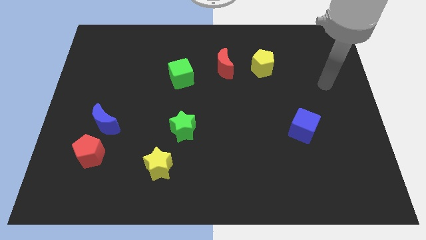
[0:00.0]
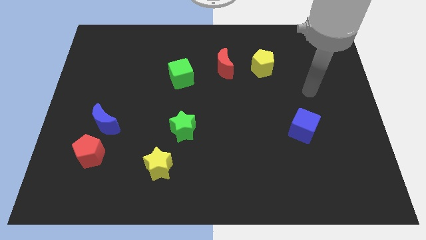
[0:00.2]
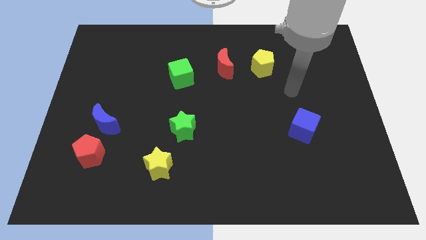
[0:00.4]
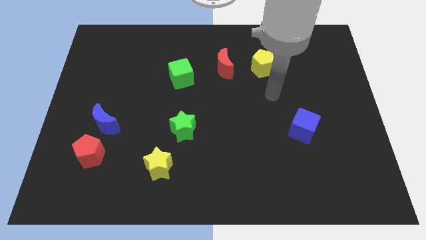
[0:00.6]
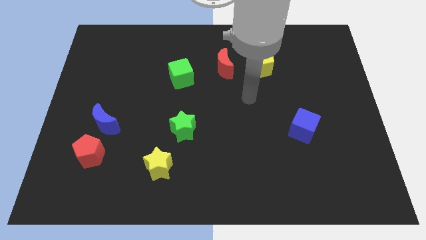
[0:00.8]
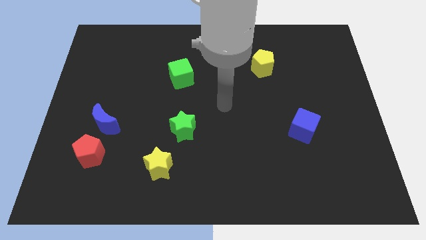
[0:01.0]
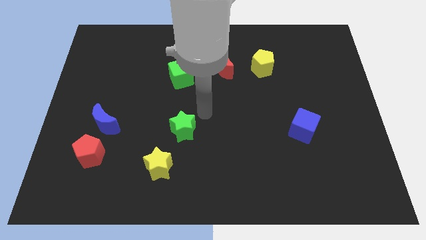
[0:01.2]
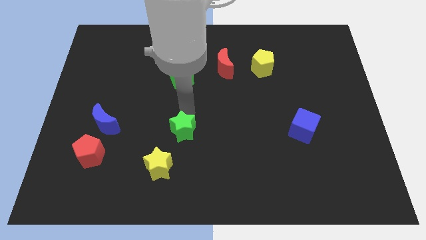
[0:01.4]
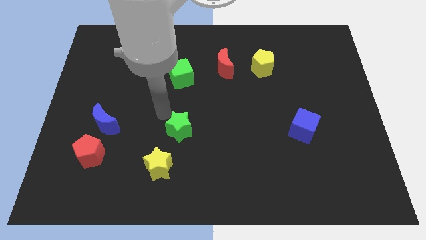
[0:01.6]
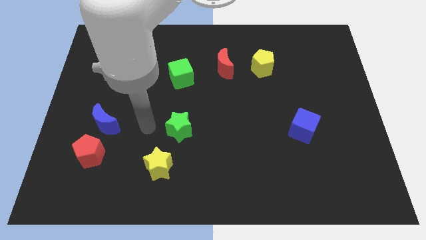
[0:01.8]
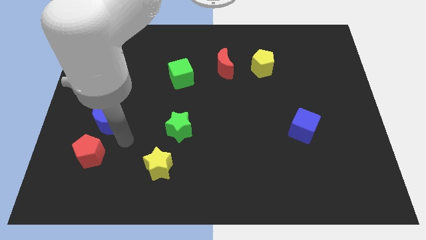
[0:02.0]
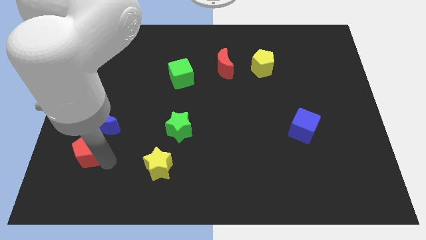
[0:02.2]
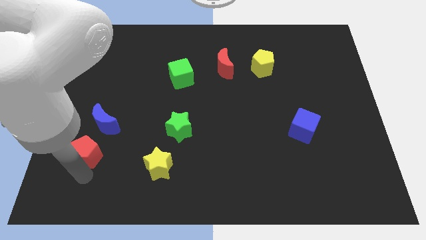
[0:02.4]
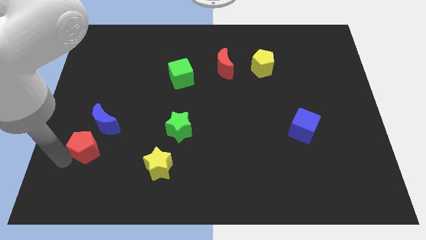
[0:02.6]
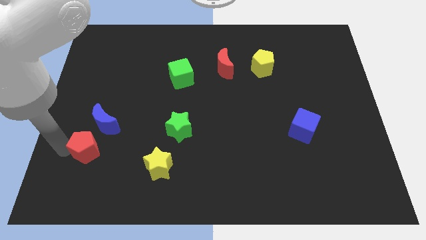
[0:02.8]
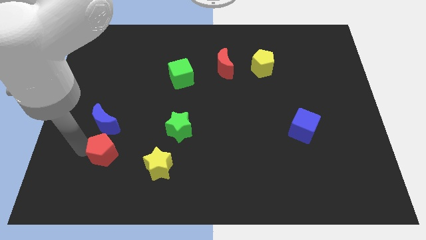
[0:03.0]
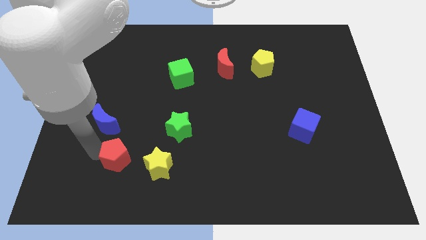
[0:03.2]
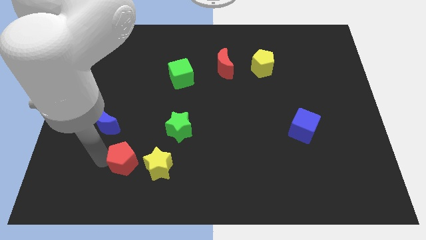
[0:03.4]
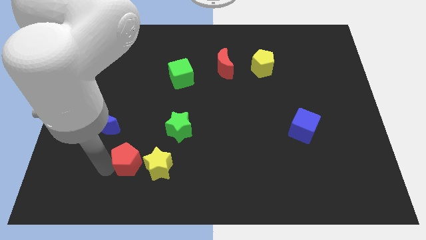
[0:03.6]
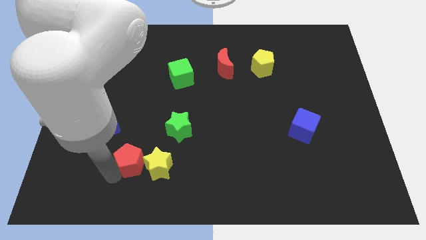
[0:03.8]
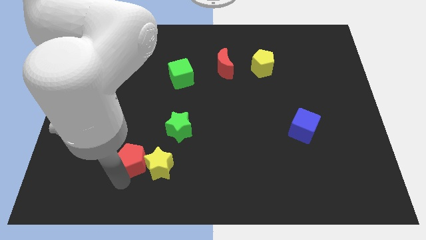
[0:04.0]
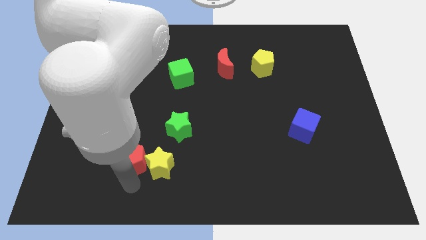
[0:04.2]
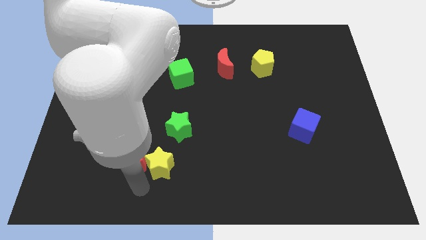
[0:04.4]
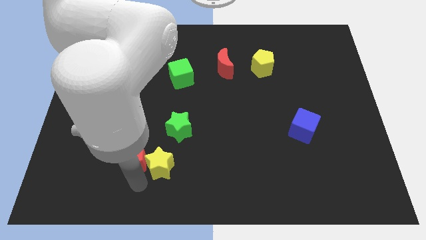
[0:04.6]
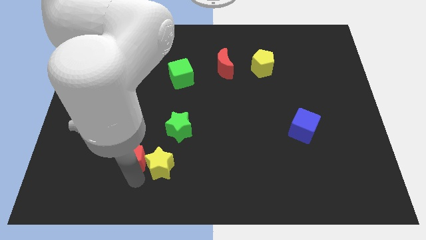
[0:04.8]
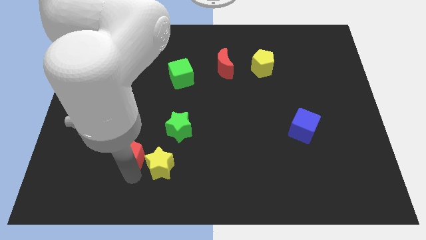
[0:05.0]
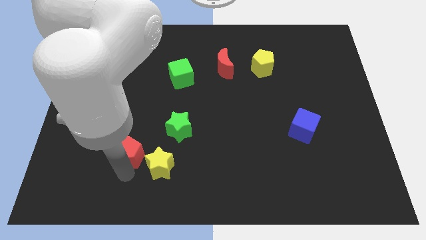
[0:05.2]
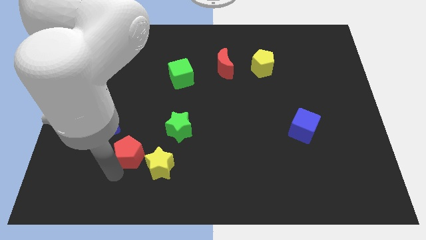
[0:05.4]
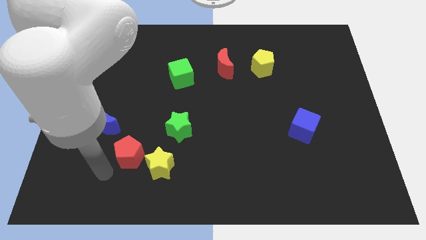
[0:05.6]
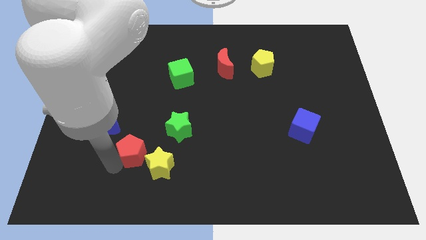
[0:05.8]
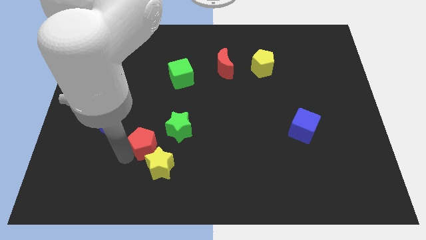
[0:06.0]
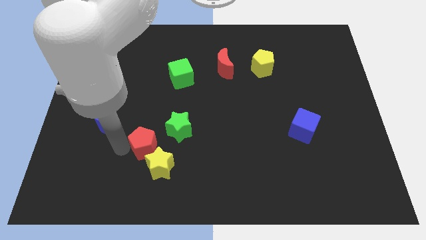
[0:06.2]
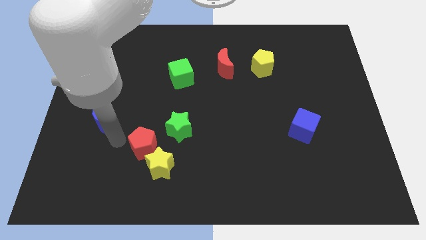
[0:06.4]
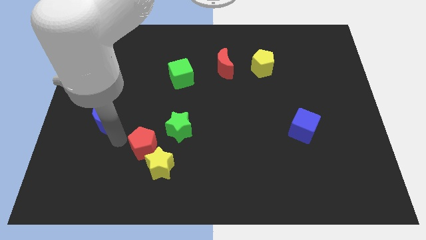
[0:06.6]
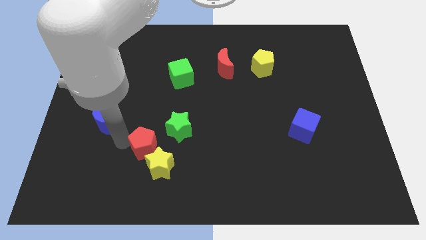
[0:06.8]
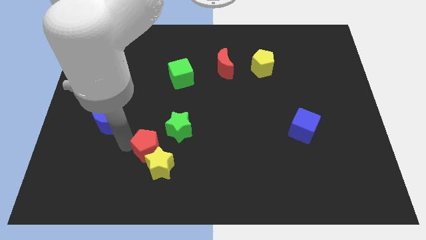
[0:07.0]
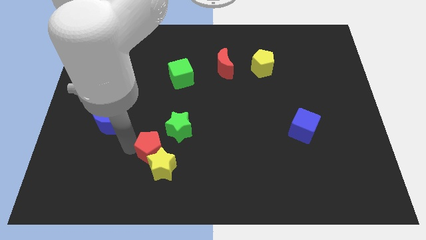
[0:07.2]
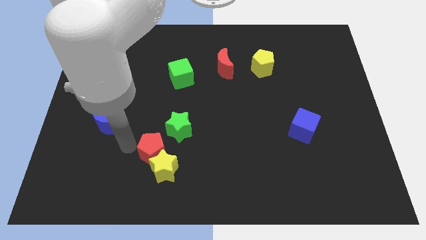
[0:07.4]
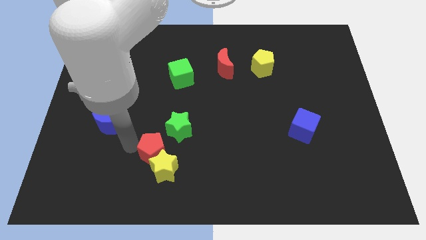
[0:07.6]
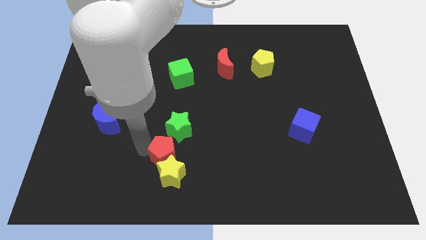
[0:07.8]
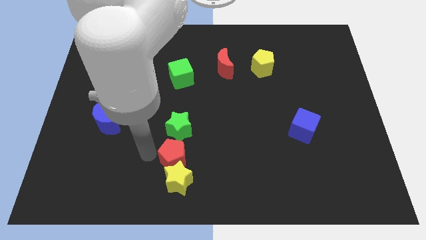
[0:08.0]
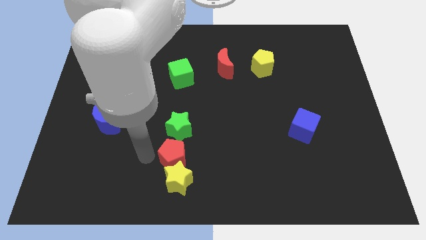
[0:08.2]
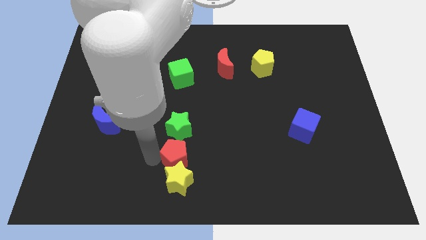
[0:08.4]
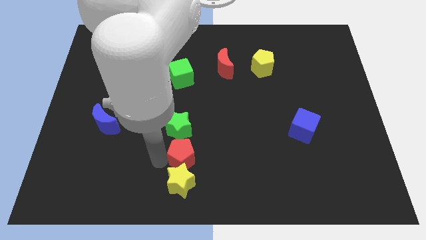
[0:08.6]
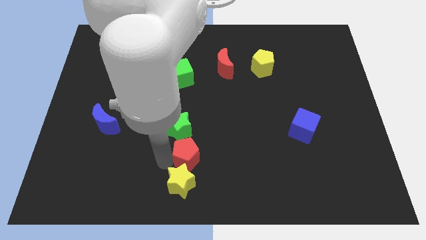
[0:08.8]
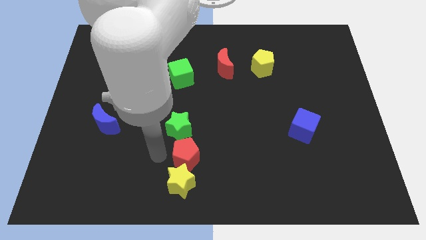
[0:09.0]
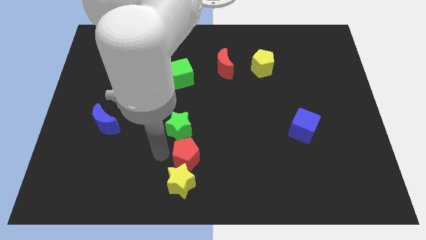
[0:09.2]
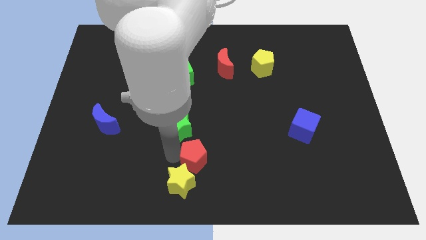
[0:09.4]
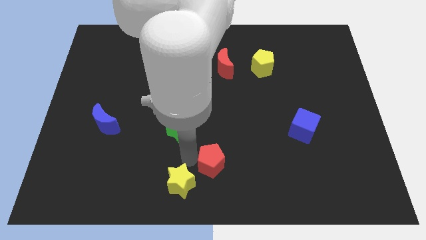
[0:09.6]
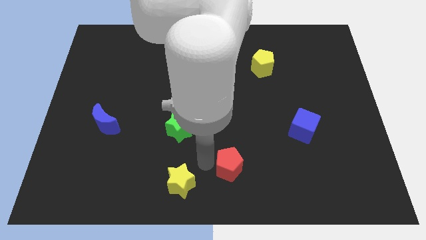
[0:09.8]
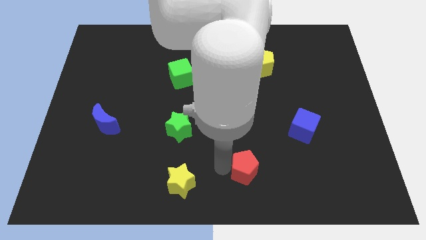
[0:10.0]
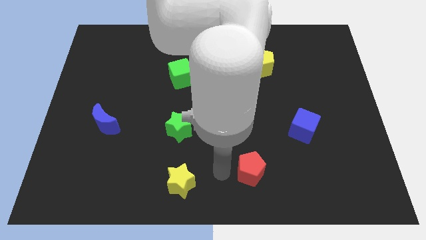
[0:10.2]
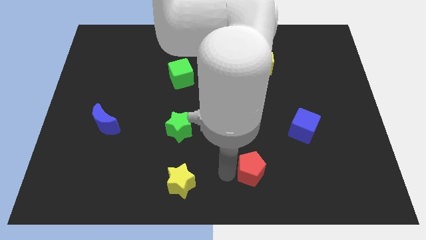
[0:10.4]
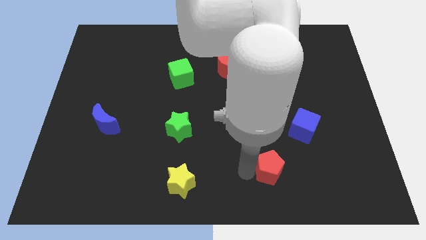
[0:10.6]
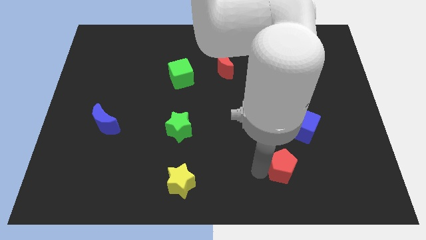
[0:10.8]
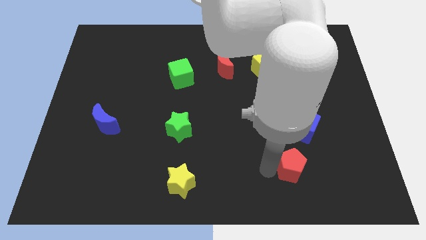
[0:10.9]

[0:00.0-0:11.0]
move the red pentagon to the bottom side of the blue cube

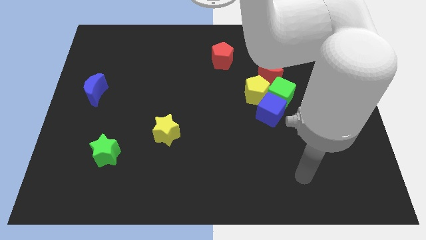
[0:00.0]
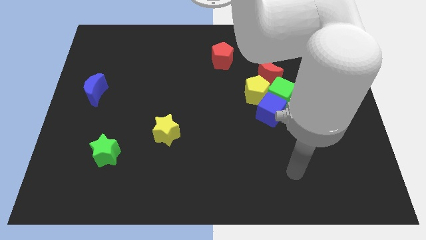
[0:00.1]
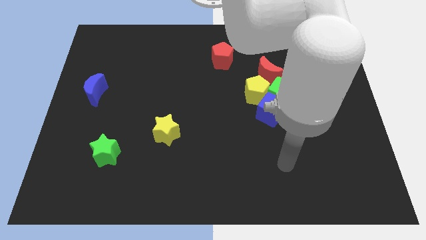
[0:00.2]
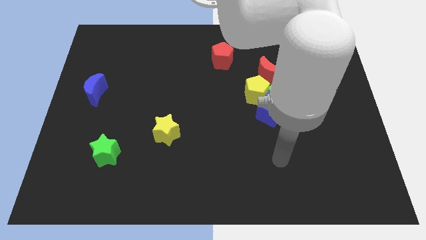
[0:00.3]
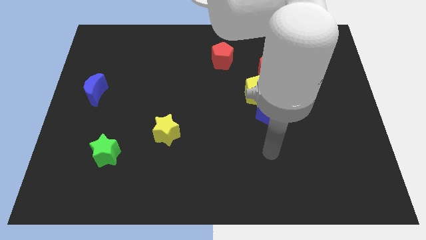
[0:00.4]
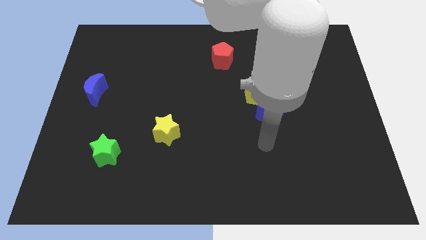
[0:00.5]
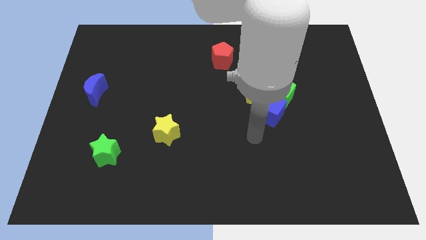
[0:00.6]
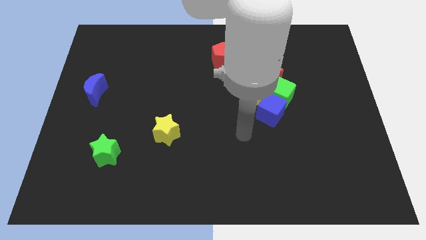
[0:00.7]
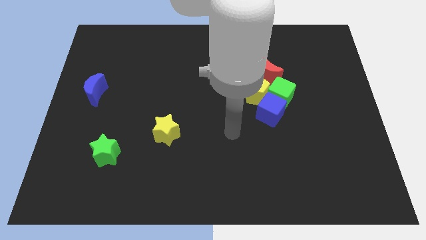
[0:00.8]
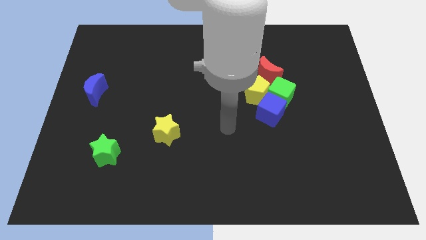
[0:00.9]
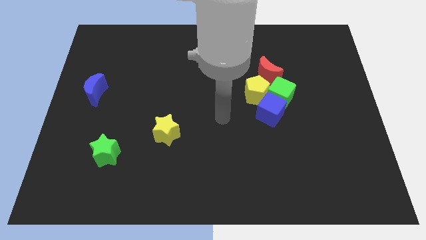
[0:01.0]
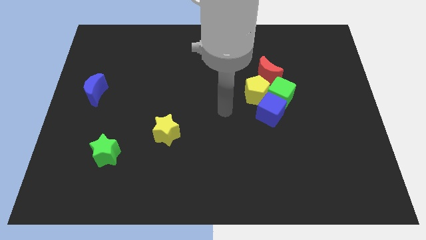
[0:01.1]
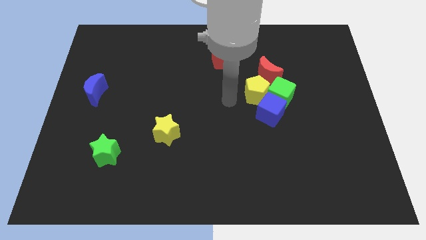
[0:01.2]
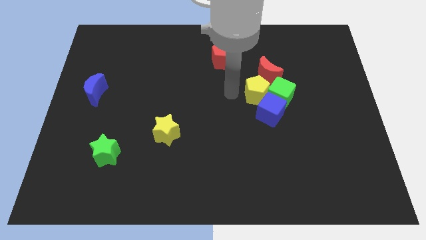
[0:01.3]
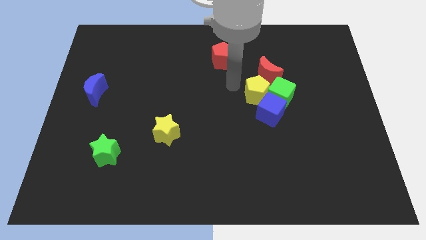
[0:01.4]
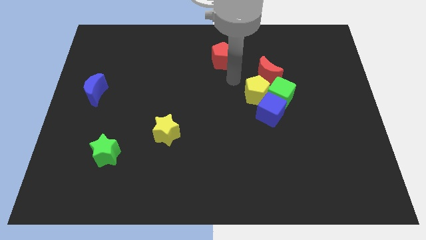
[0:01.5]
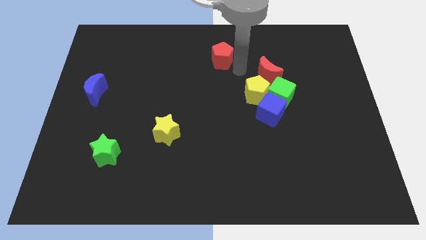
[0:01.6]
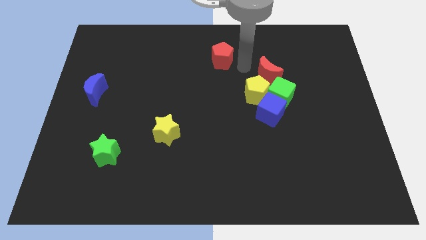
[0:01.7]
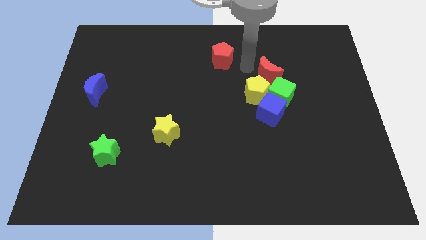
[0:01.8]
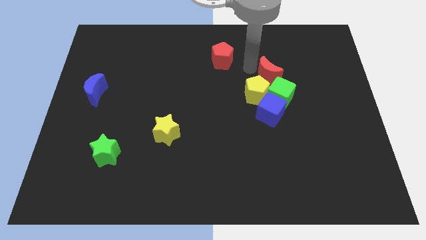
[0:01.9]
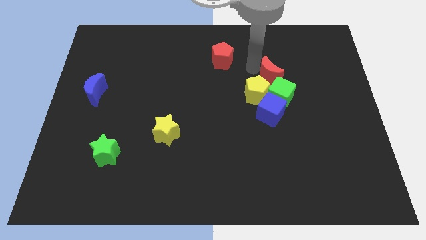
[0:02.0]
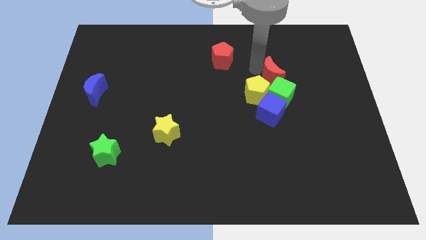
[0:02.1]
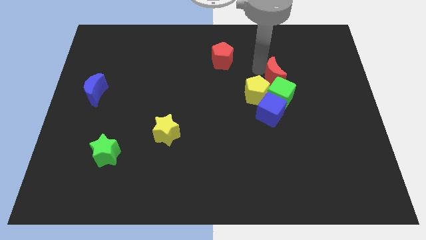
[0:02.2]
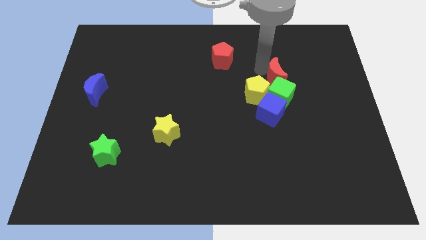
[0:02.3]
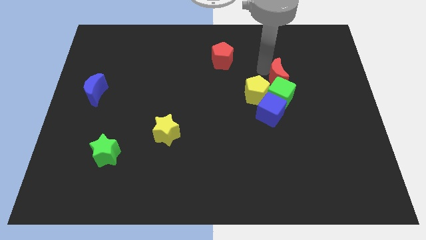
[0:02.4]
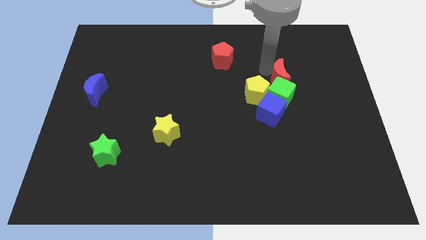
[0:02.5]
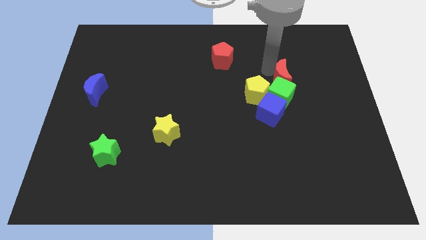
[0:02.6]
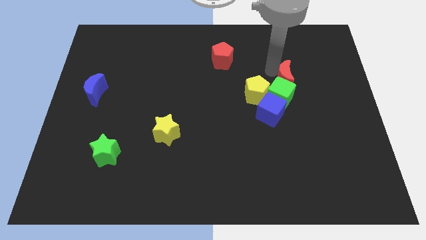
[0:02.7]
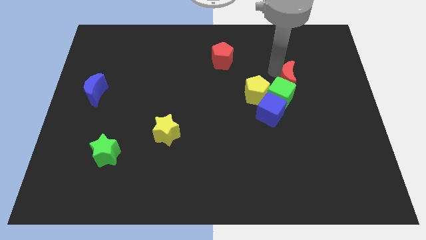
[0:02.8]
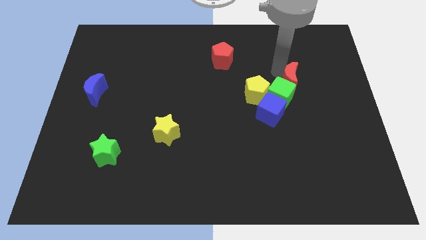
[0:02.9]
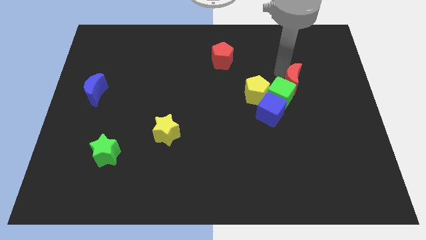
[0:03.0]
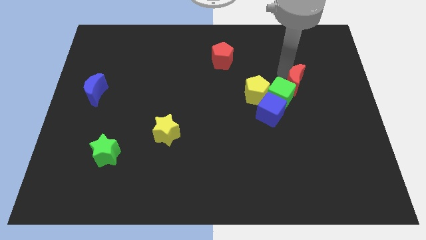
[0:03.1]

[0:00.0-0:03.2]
push the red moon just right of the green cube
